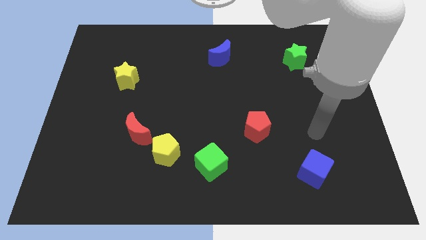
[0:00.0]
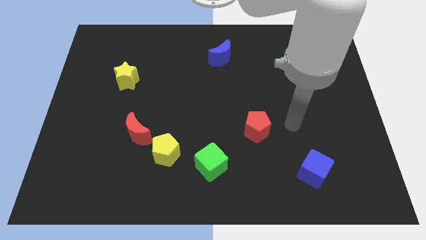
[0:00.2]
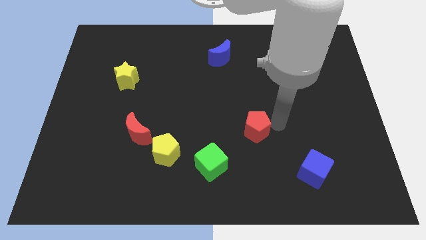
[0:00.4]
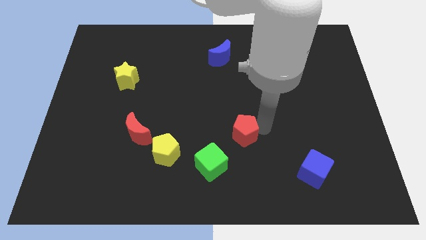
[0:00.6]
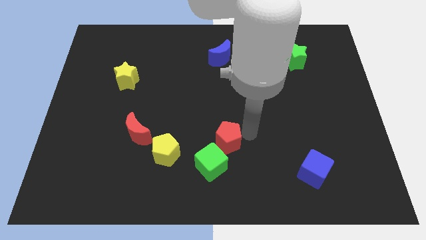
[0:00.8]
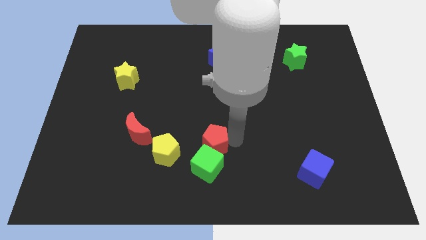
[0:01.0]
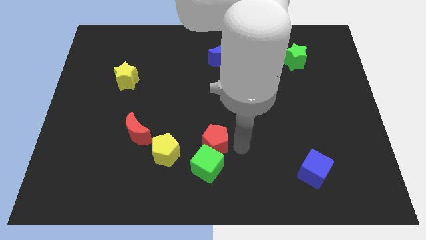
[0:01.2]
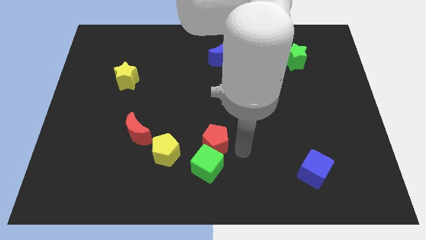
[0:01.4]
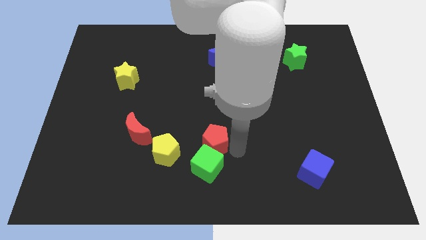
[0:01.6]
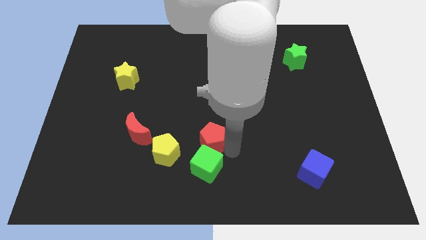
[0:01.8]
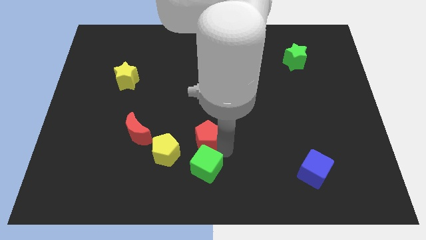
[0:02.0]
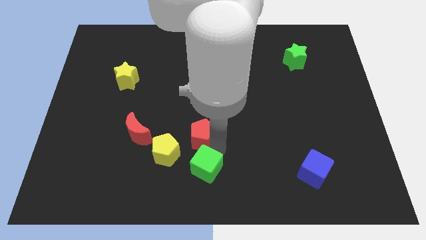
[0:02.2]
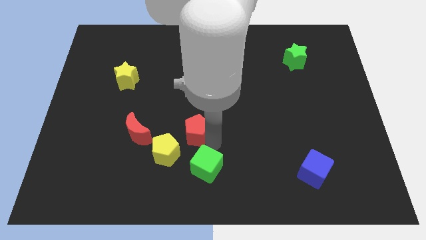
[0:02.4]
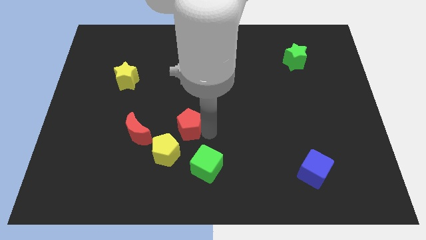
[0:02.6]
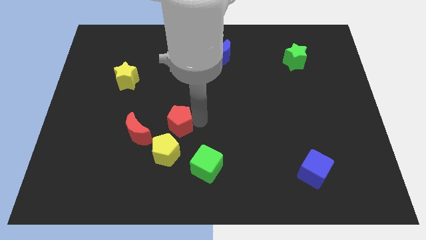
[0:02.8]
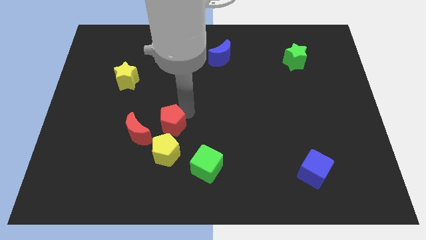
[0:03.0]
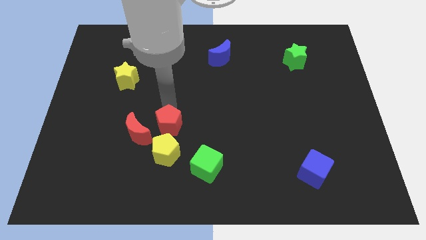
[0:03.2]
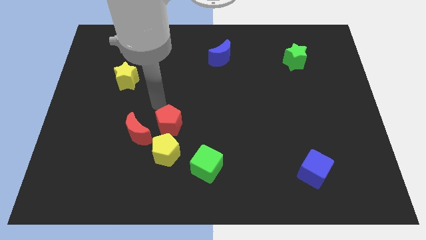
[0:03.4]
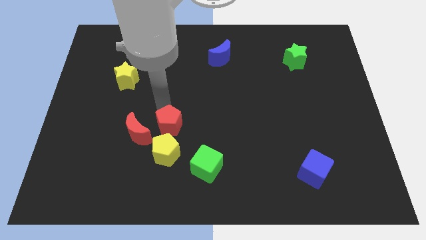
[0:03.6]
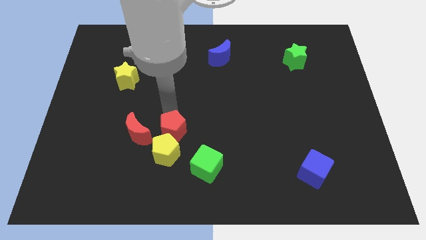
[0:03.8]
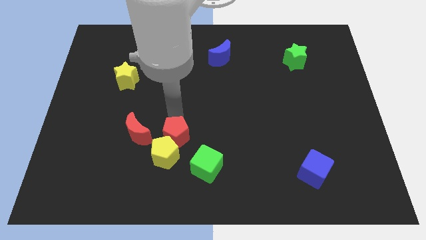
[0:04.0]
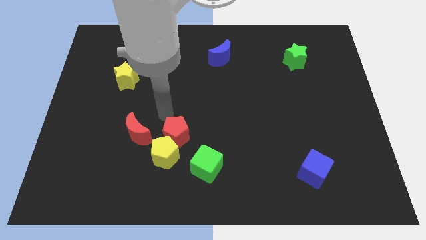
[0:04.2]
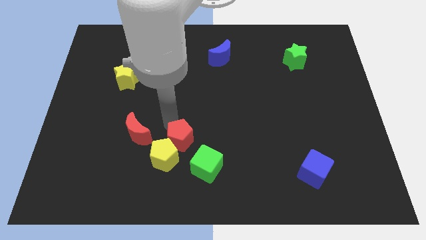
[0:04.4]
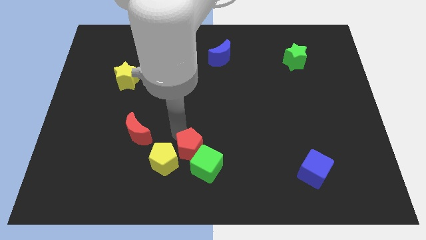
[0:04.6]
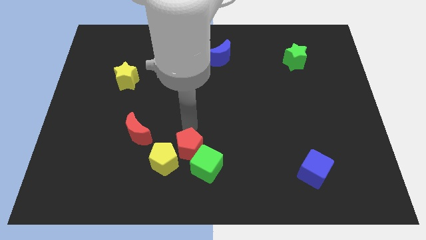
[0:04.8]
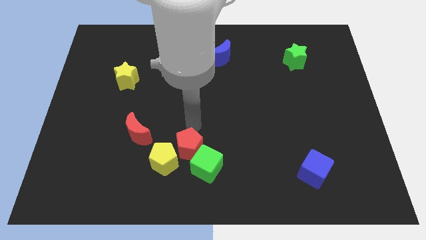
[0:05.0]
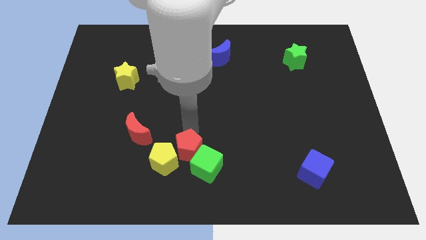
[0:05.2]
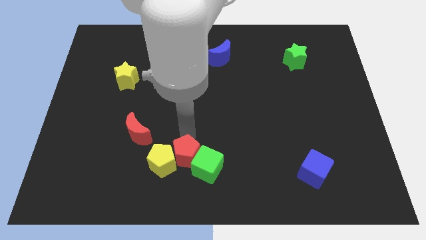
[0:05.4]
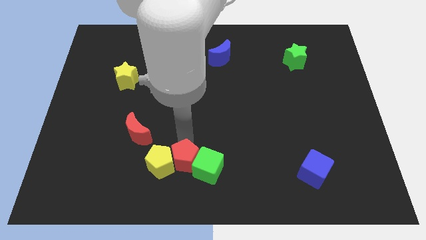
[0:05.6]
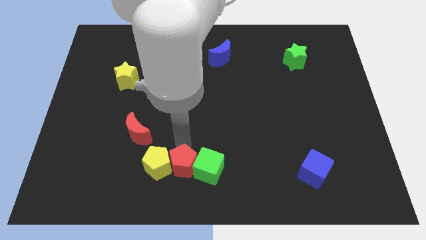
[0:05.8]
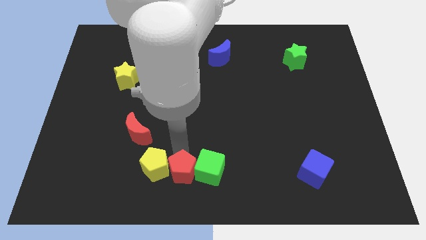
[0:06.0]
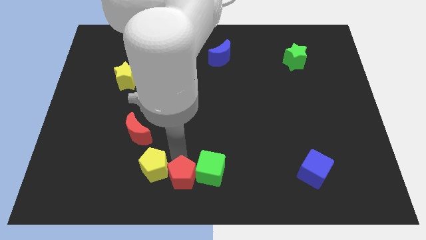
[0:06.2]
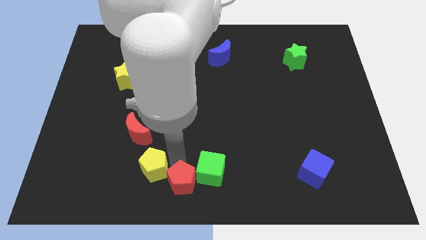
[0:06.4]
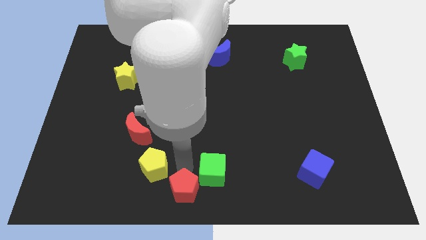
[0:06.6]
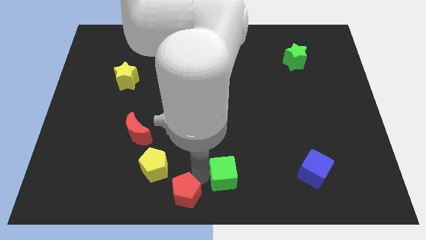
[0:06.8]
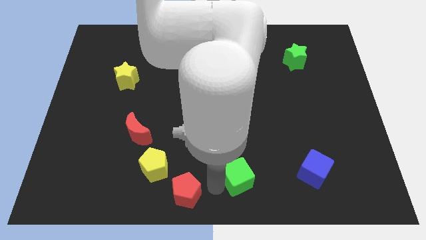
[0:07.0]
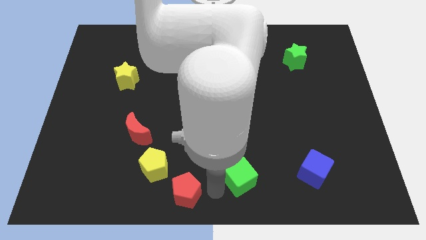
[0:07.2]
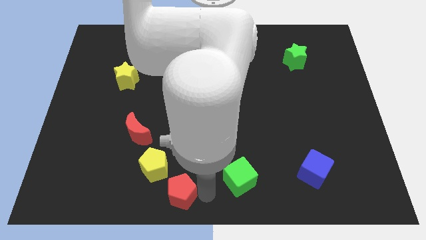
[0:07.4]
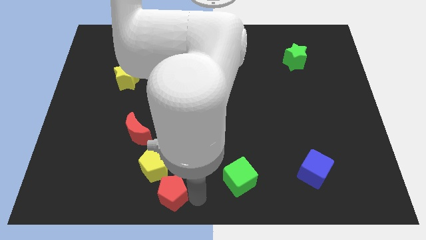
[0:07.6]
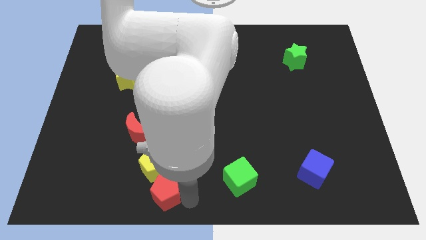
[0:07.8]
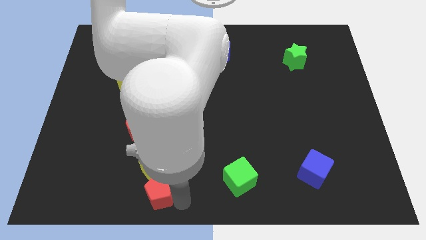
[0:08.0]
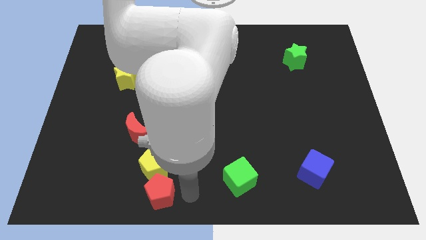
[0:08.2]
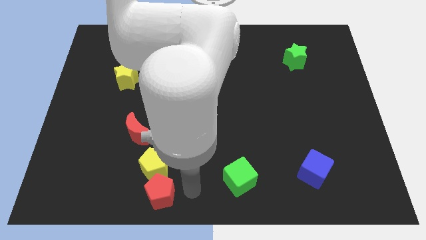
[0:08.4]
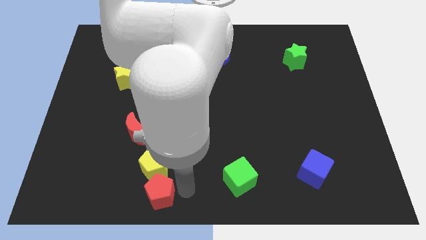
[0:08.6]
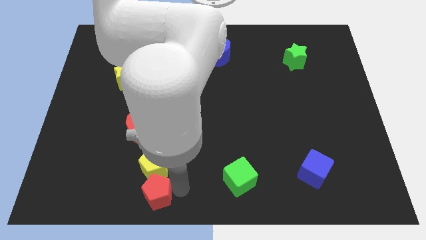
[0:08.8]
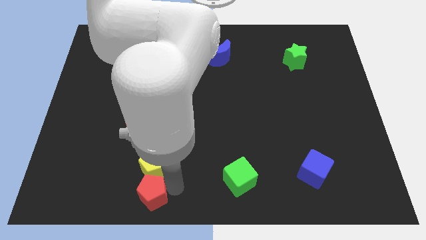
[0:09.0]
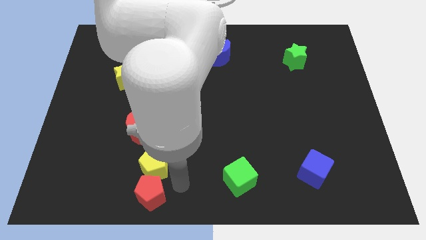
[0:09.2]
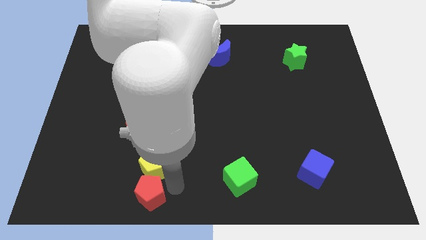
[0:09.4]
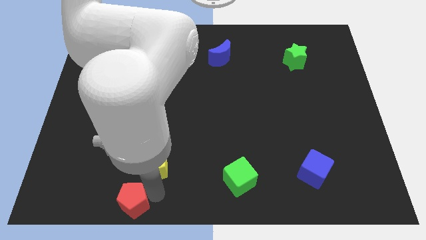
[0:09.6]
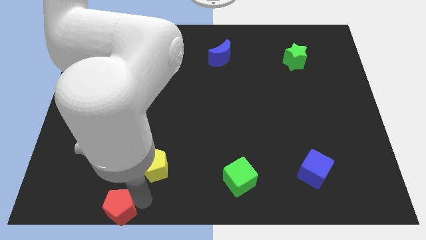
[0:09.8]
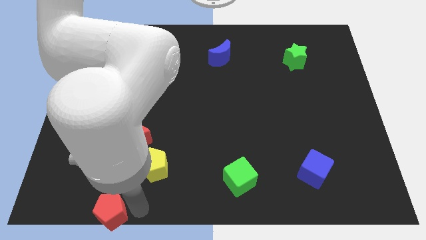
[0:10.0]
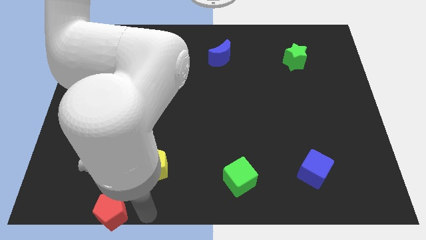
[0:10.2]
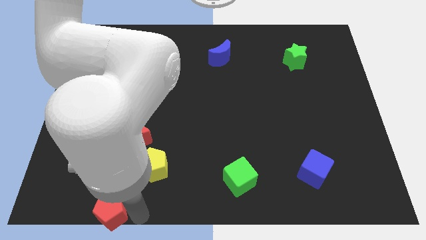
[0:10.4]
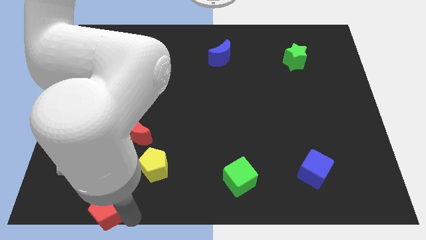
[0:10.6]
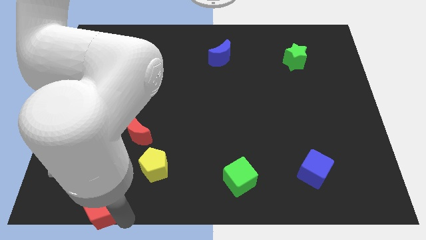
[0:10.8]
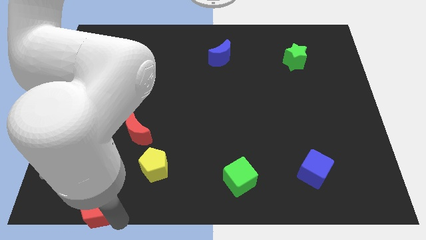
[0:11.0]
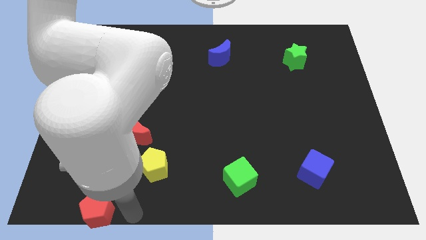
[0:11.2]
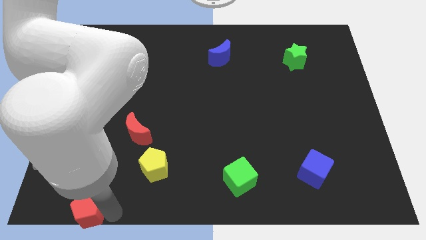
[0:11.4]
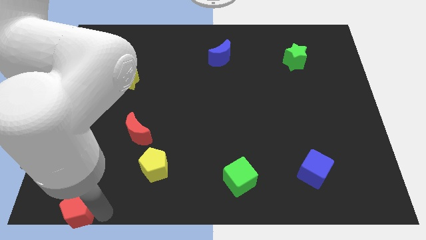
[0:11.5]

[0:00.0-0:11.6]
slide the red pentagon to the bottom left of the board

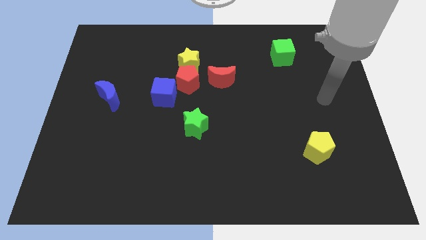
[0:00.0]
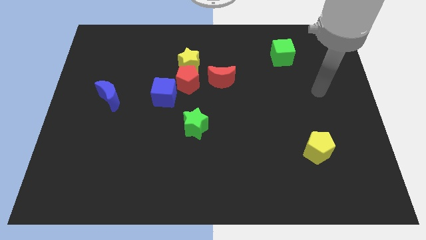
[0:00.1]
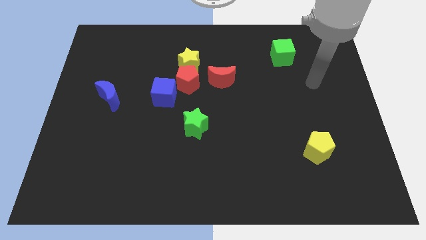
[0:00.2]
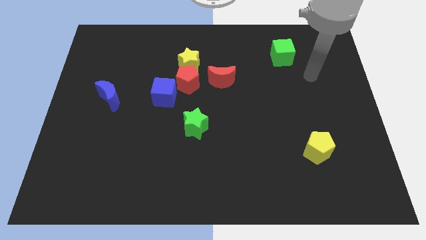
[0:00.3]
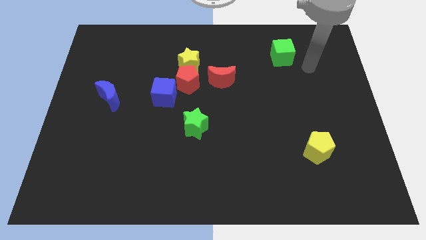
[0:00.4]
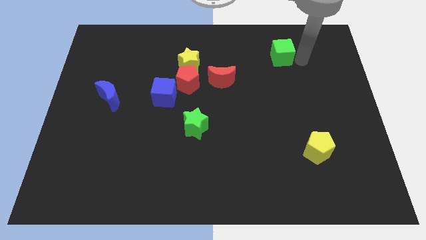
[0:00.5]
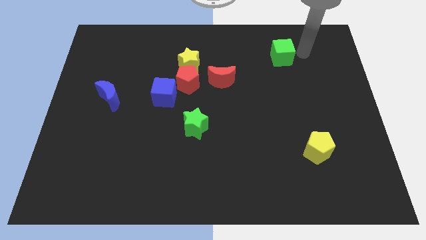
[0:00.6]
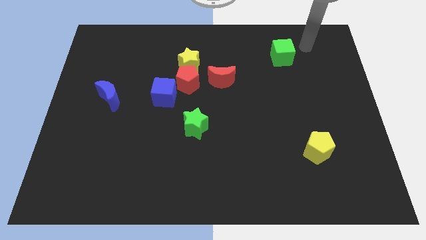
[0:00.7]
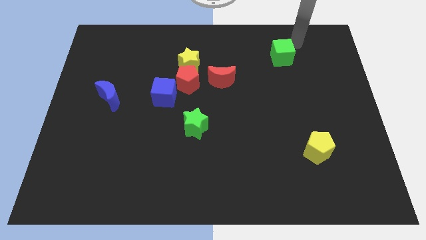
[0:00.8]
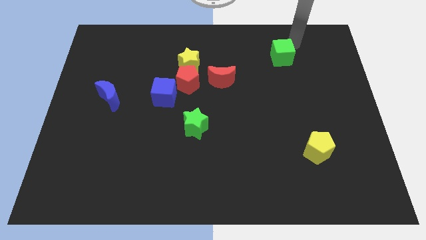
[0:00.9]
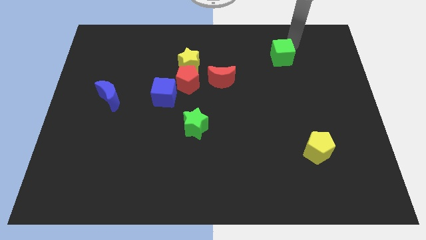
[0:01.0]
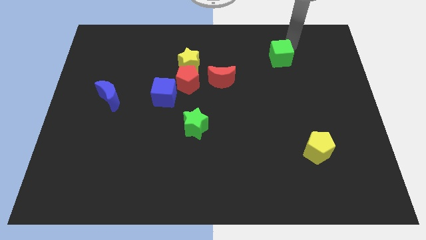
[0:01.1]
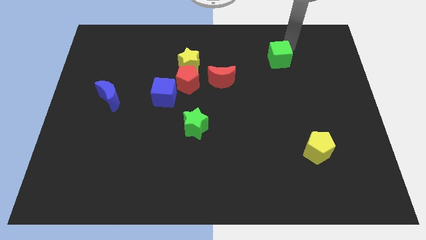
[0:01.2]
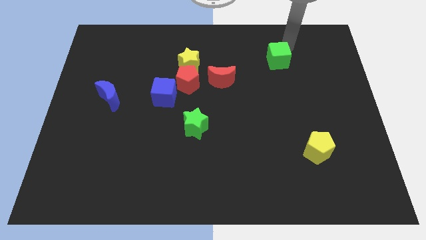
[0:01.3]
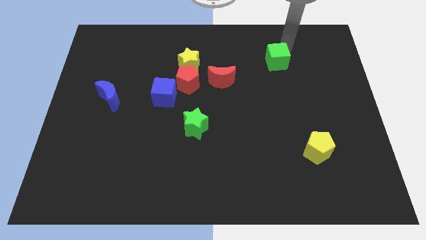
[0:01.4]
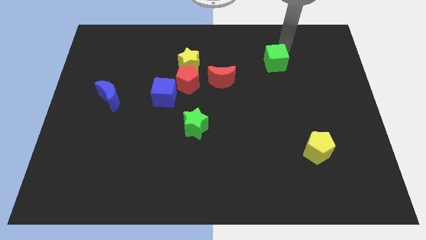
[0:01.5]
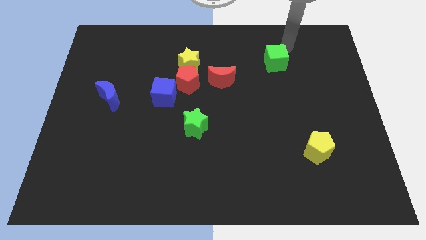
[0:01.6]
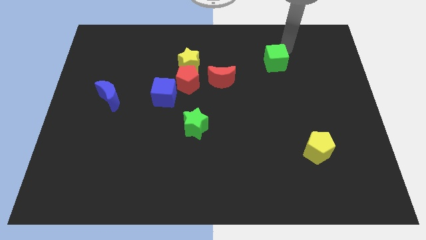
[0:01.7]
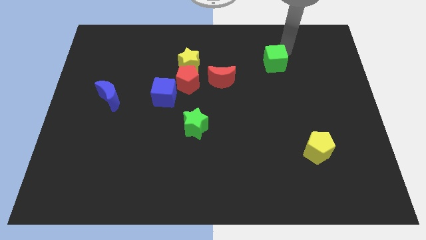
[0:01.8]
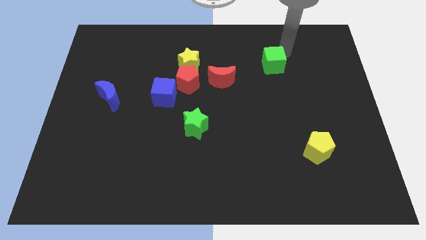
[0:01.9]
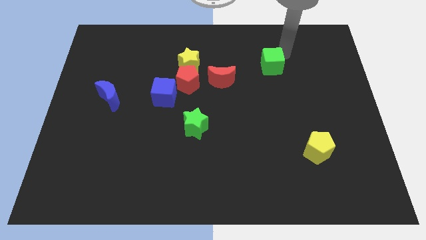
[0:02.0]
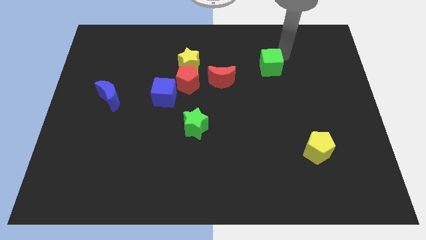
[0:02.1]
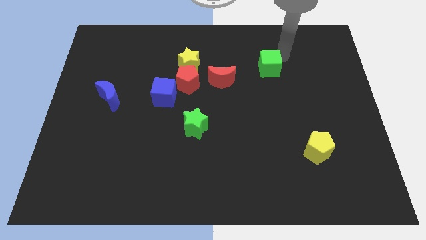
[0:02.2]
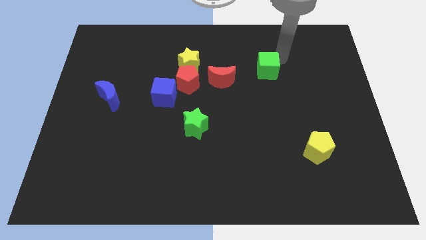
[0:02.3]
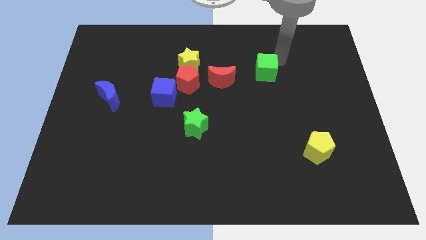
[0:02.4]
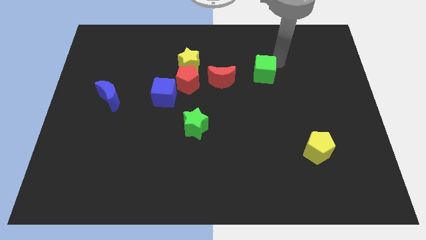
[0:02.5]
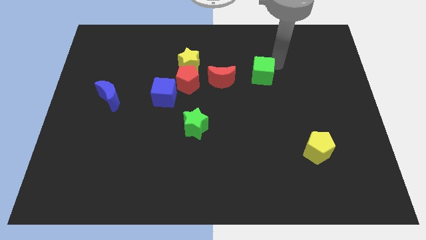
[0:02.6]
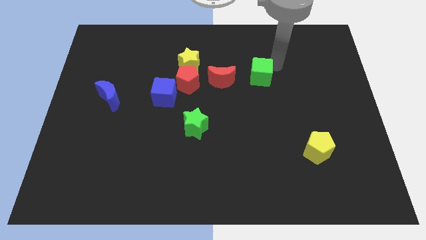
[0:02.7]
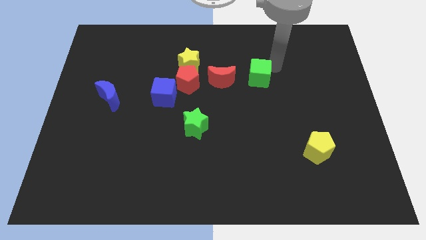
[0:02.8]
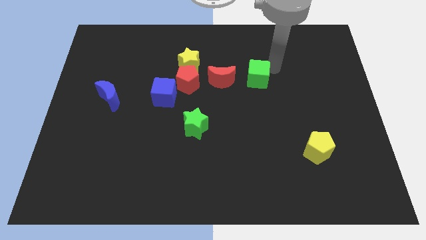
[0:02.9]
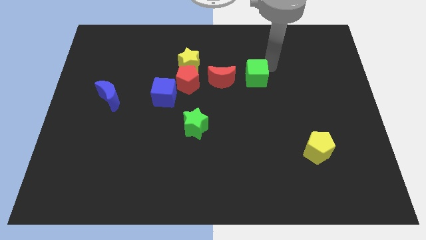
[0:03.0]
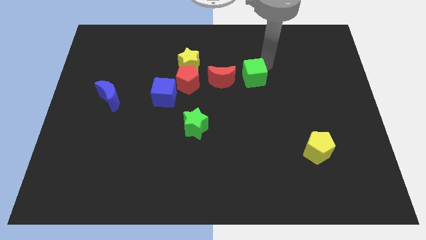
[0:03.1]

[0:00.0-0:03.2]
slide the green cube to the center
